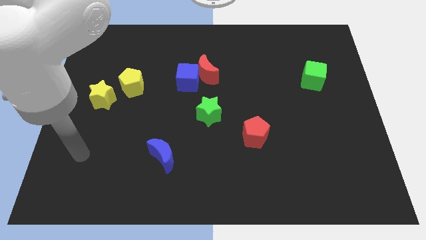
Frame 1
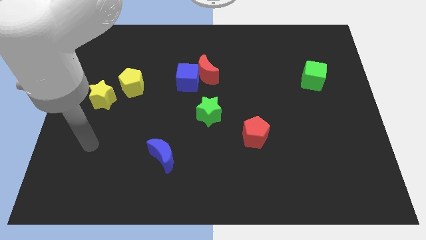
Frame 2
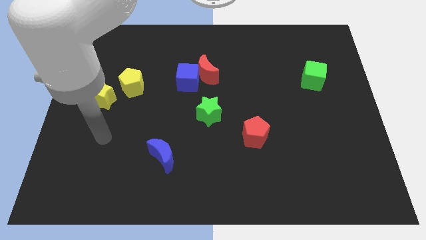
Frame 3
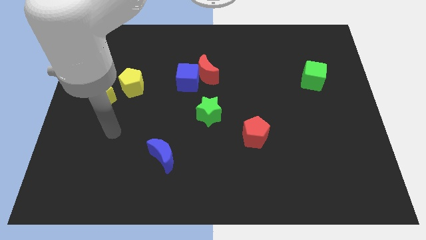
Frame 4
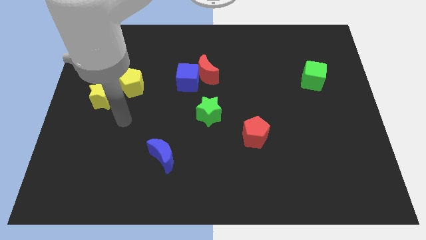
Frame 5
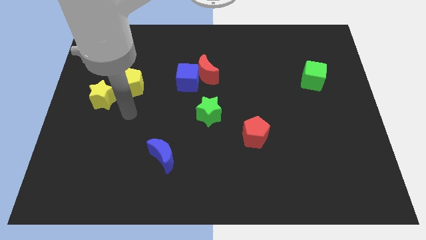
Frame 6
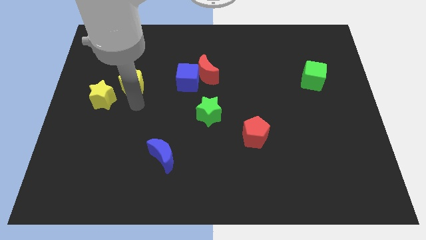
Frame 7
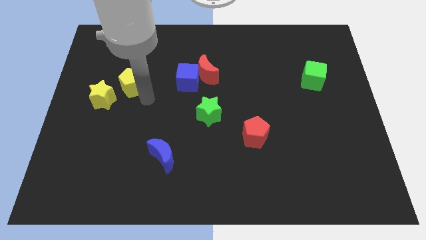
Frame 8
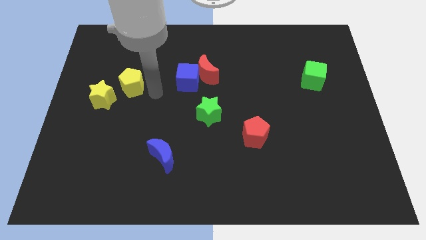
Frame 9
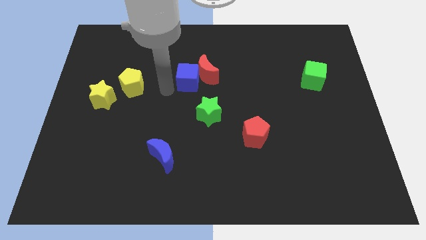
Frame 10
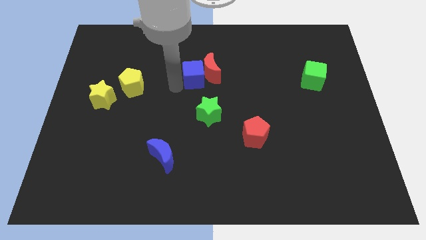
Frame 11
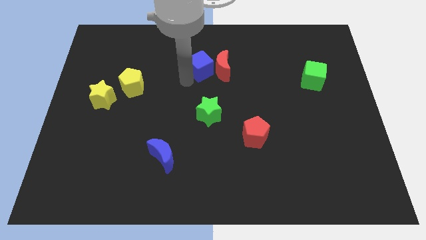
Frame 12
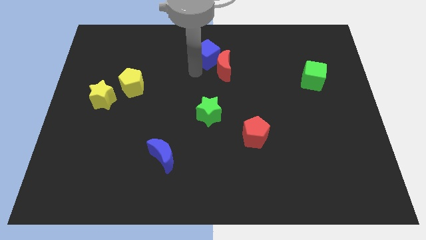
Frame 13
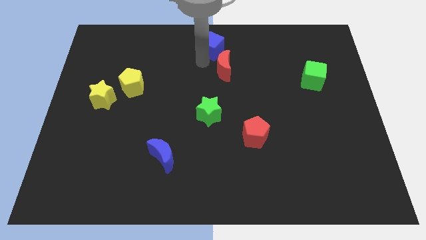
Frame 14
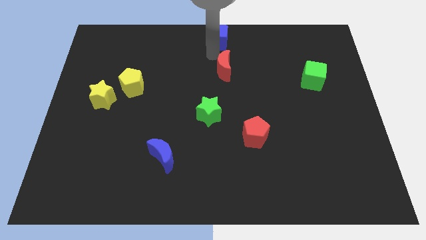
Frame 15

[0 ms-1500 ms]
move the red moon away from the blue cube

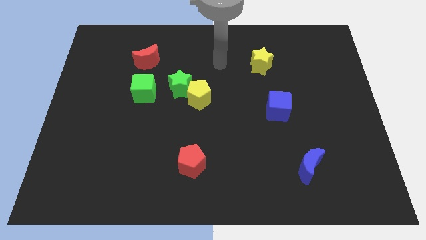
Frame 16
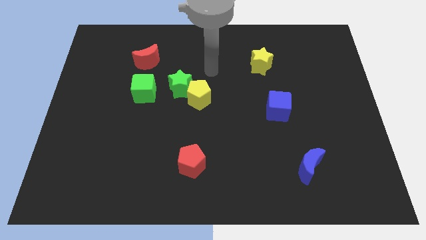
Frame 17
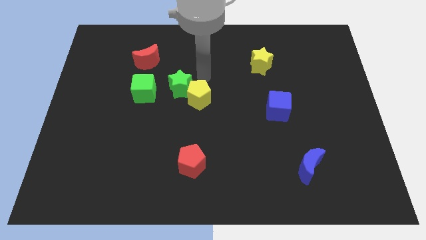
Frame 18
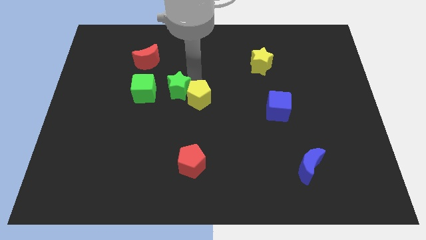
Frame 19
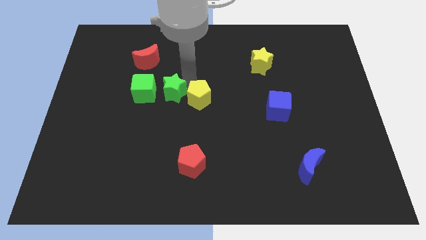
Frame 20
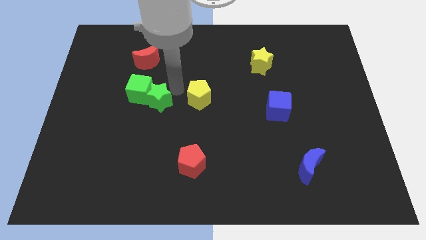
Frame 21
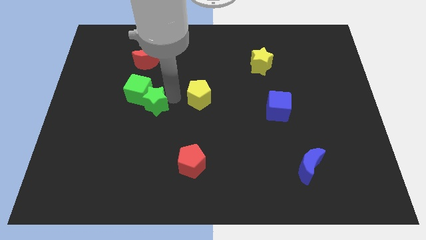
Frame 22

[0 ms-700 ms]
move the yellow pentagon away from the green star

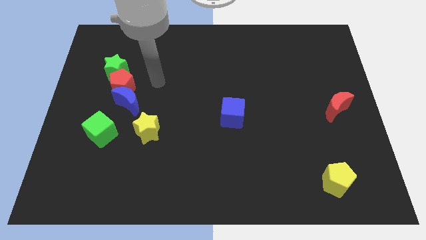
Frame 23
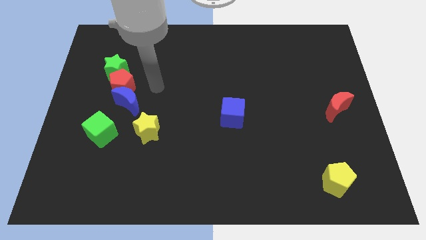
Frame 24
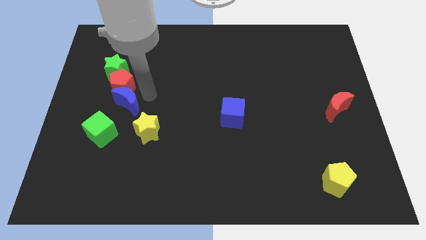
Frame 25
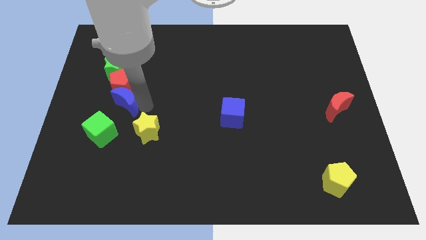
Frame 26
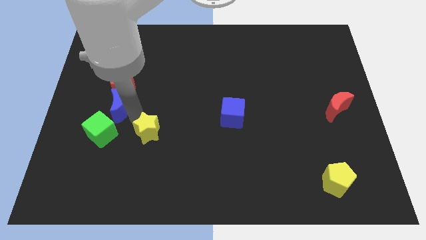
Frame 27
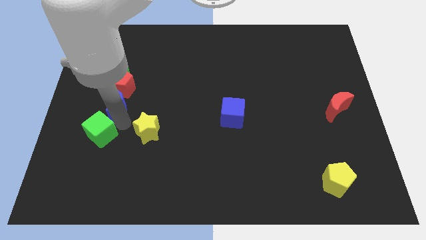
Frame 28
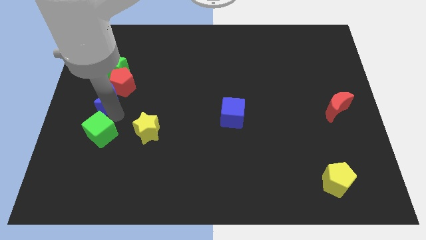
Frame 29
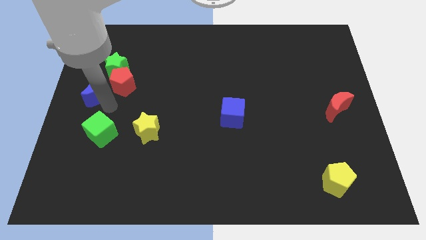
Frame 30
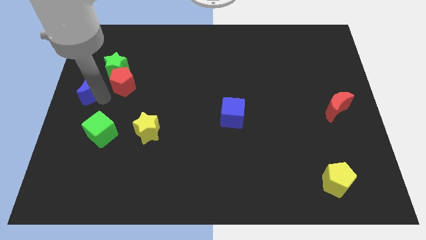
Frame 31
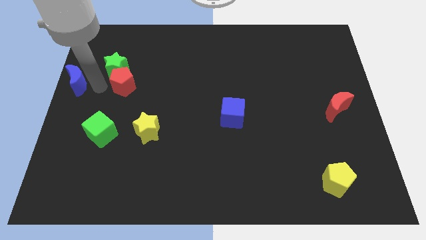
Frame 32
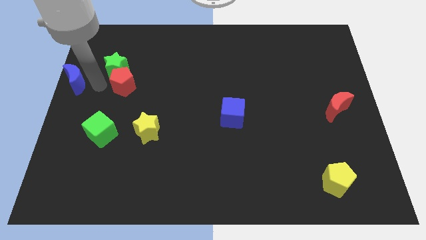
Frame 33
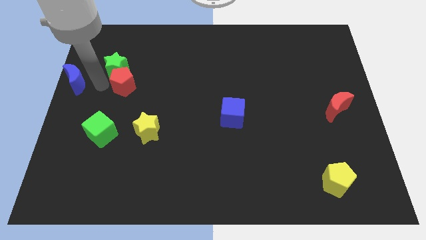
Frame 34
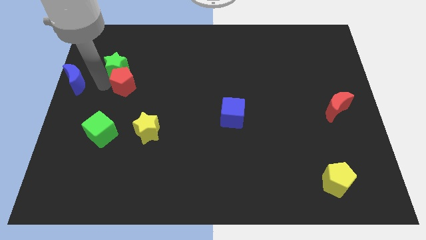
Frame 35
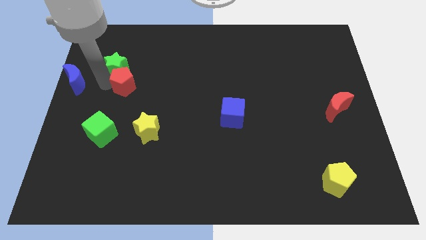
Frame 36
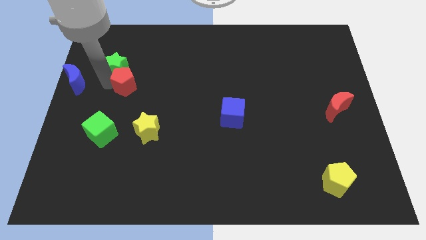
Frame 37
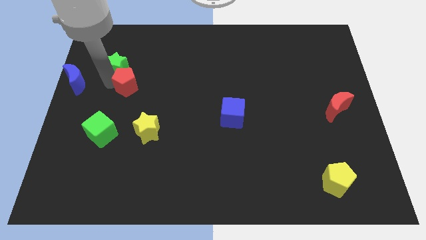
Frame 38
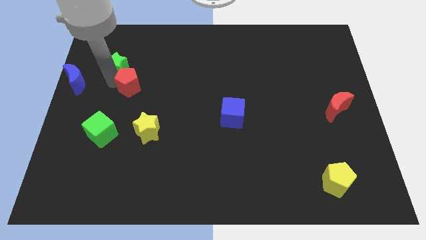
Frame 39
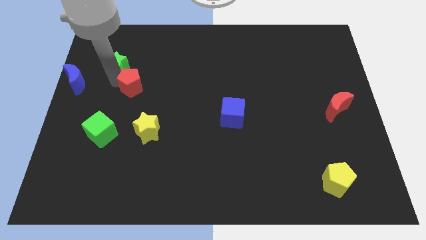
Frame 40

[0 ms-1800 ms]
pull the red pentagon apart from the blue moon and green star

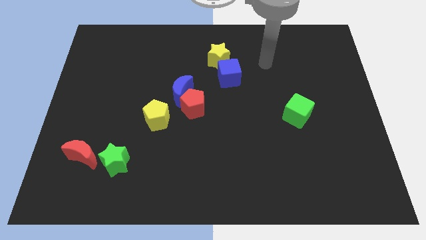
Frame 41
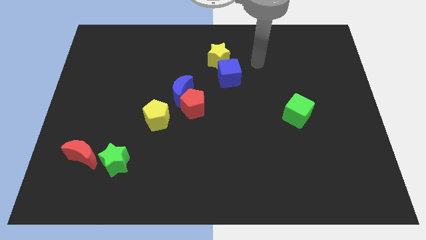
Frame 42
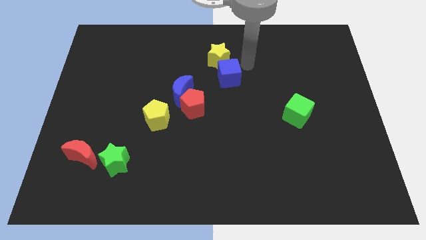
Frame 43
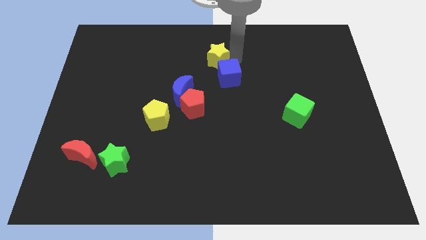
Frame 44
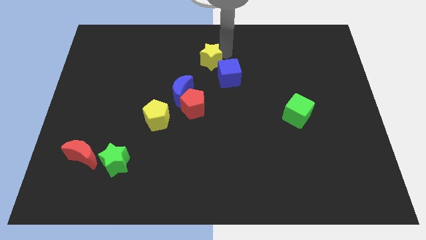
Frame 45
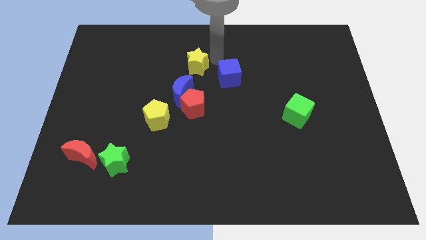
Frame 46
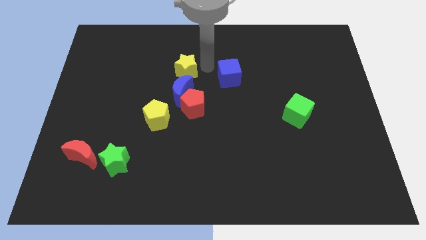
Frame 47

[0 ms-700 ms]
separate the blue cube from the yellow star

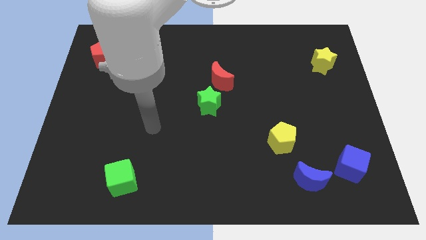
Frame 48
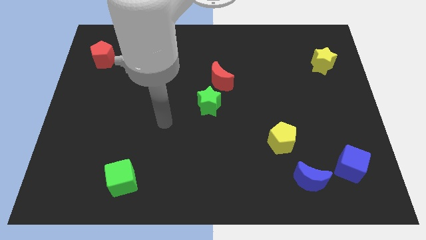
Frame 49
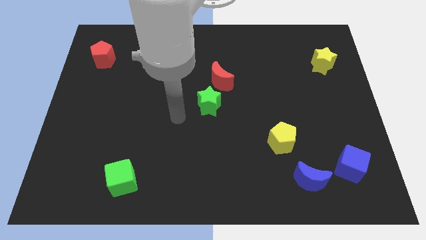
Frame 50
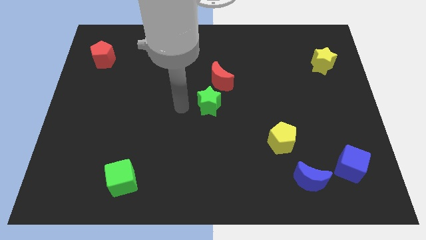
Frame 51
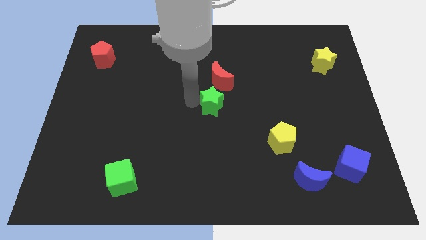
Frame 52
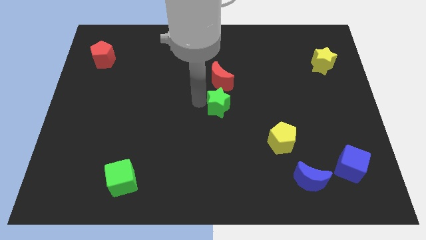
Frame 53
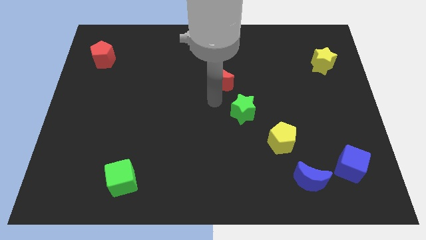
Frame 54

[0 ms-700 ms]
pull the red moon apart from the green star

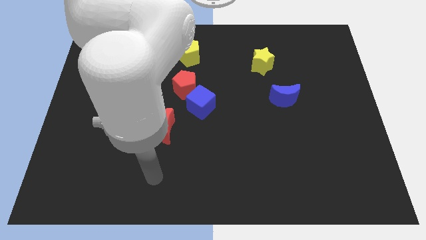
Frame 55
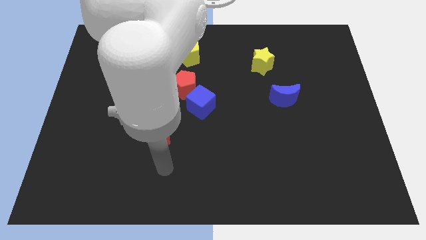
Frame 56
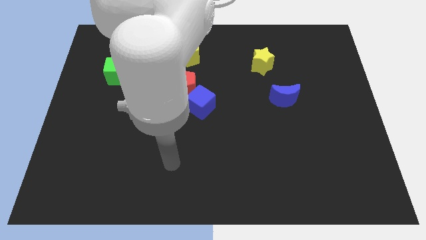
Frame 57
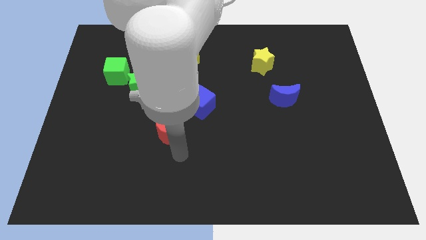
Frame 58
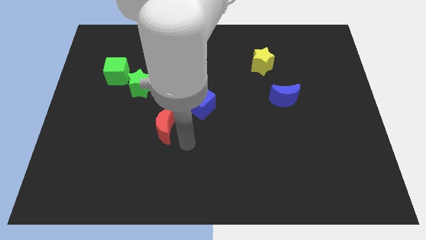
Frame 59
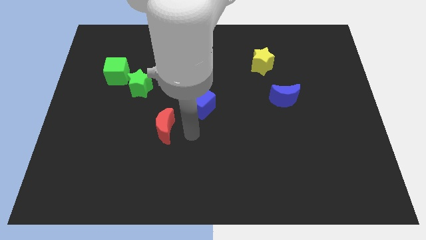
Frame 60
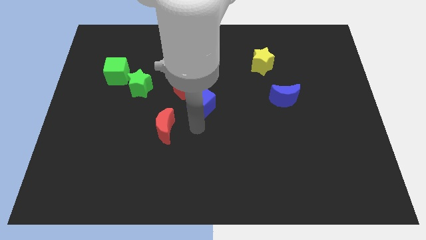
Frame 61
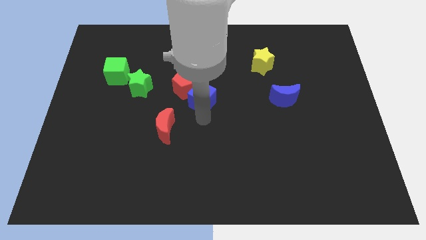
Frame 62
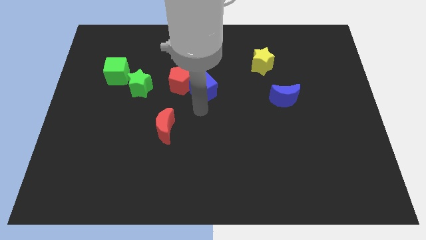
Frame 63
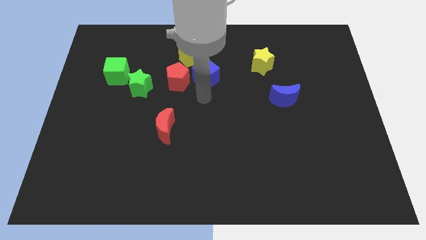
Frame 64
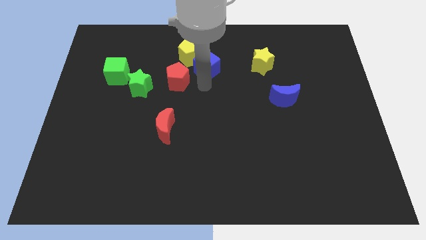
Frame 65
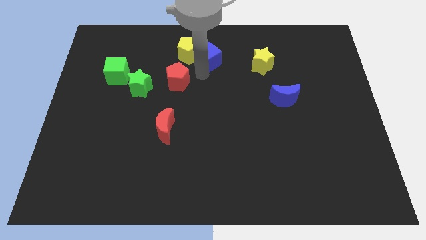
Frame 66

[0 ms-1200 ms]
move the red pentagon away from the blue cube

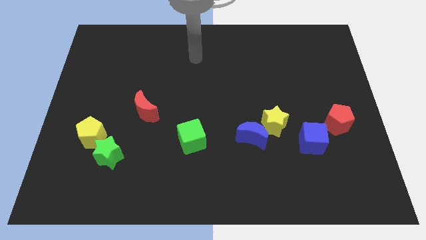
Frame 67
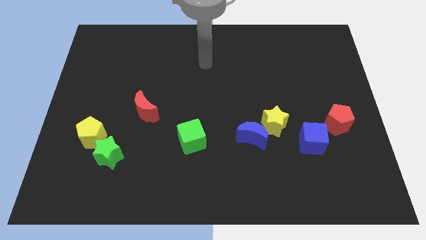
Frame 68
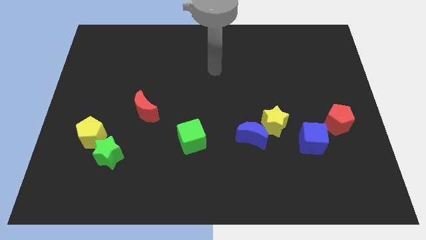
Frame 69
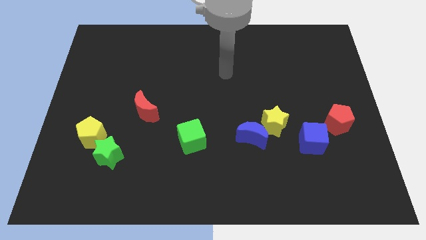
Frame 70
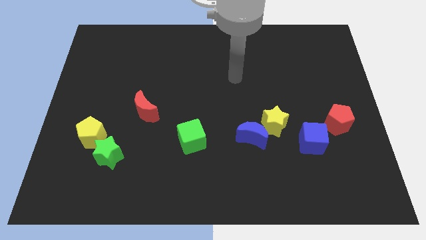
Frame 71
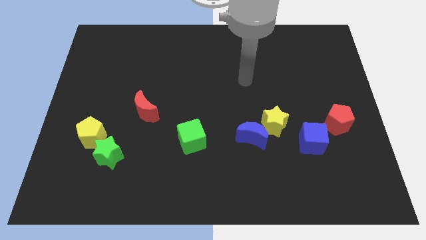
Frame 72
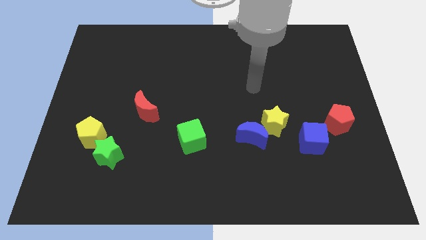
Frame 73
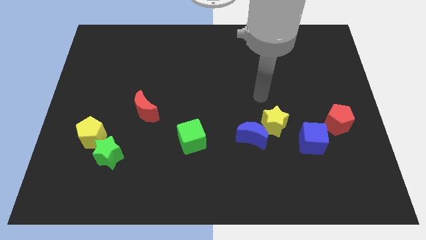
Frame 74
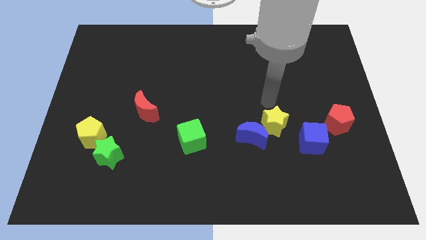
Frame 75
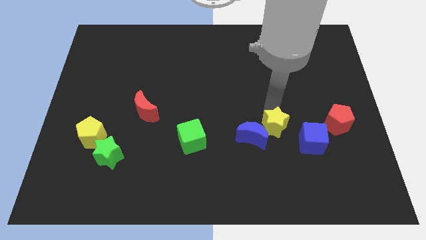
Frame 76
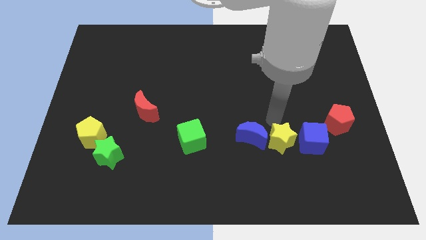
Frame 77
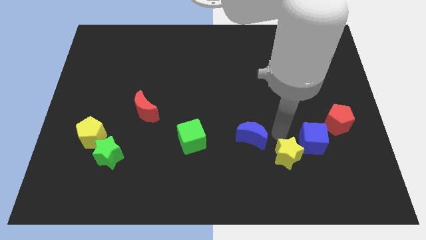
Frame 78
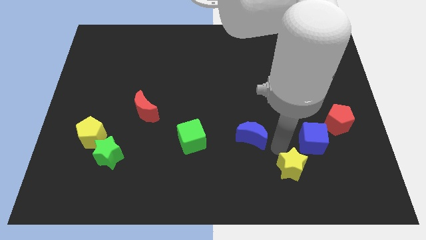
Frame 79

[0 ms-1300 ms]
separate the blue moon from the yellow star

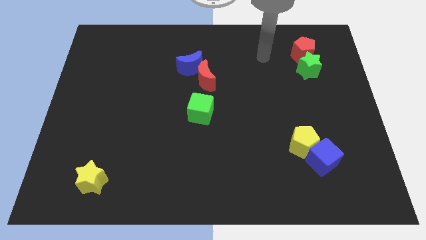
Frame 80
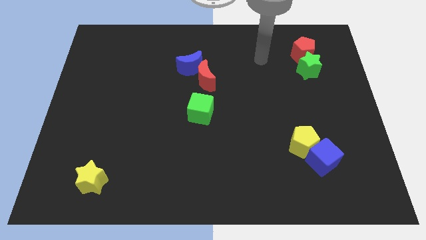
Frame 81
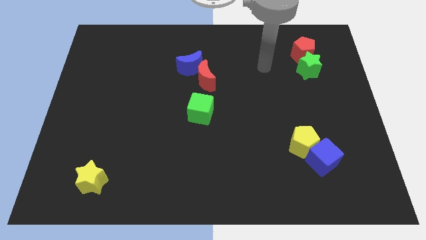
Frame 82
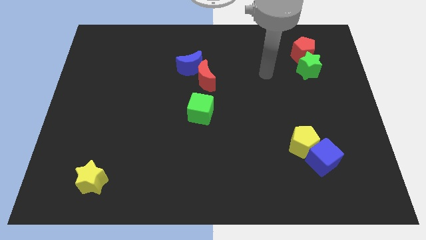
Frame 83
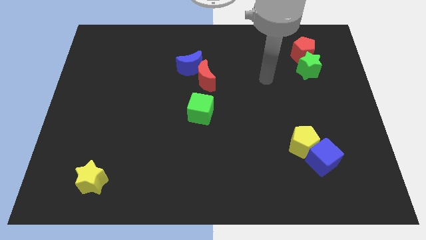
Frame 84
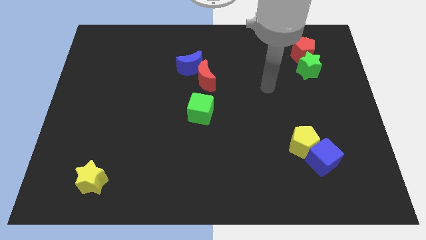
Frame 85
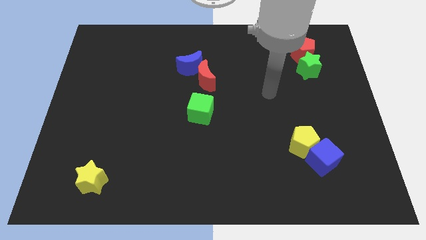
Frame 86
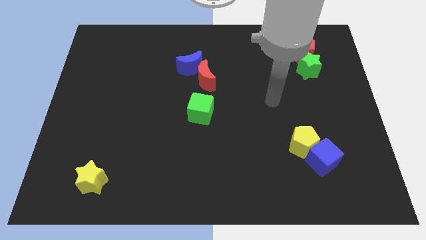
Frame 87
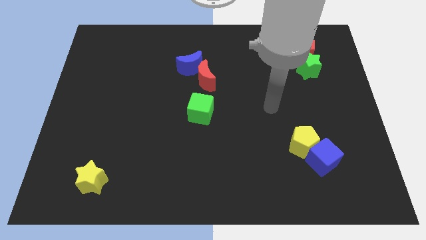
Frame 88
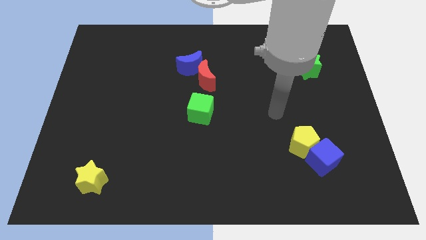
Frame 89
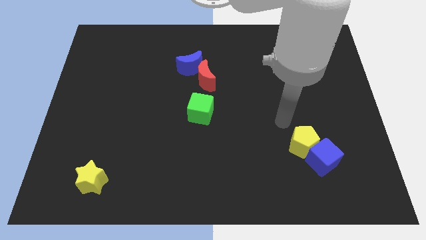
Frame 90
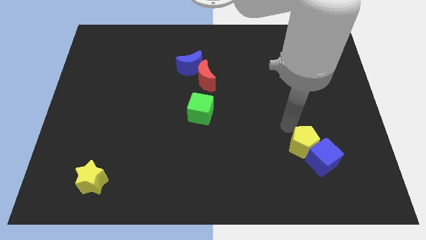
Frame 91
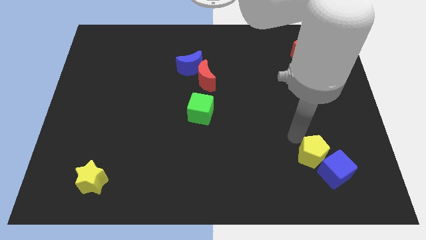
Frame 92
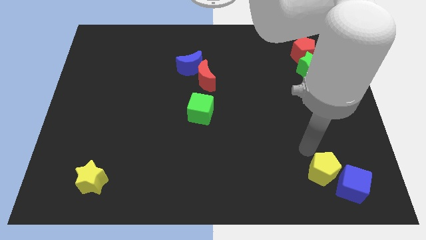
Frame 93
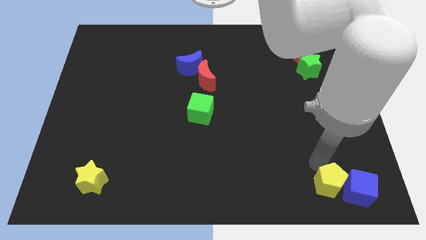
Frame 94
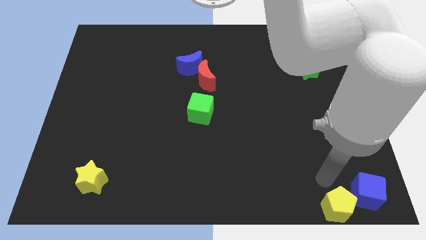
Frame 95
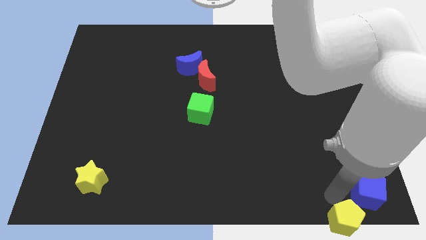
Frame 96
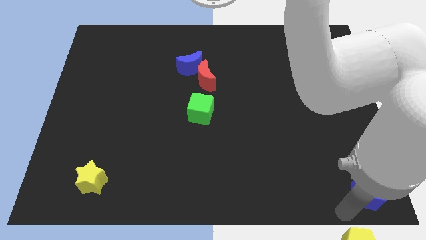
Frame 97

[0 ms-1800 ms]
pull the blue cube apart from the yellow pentagon
